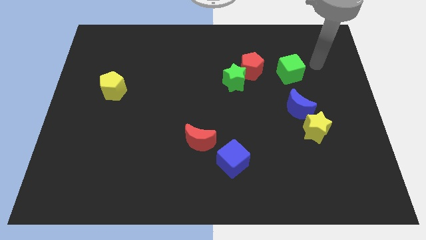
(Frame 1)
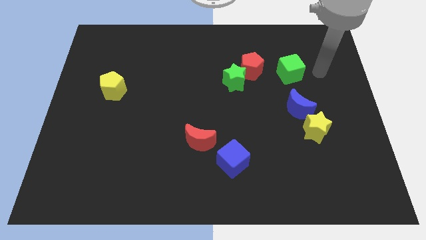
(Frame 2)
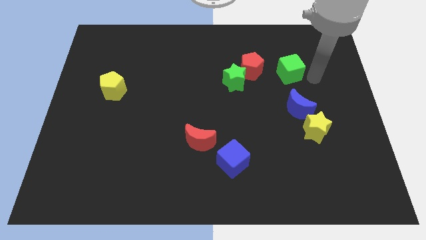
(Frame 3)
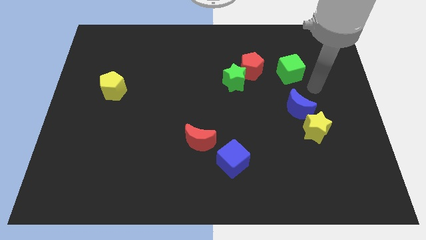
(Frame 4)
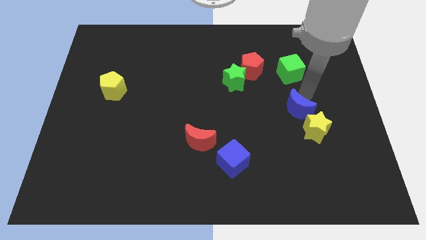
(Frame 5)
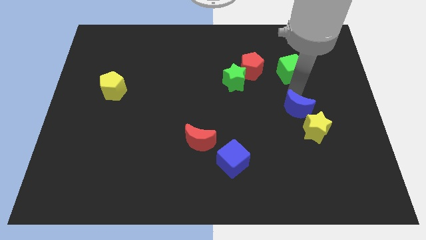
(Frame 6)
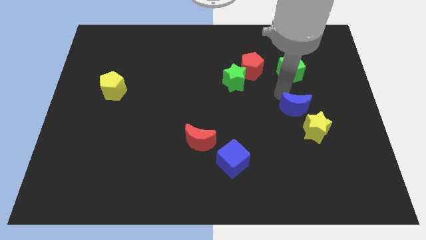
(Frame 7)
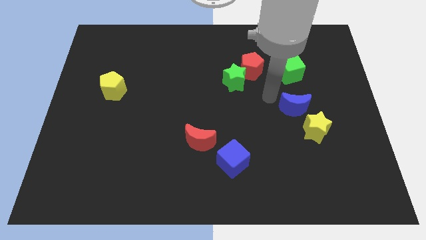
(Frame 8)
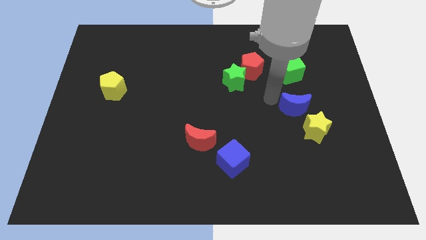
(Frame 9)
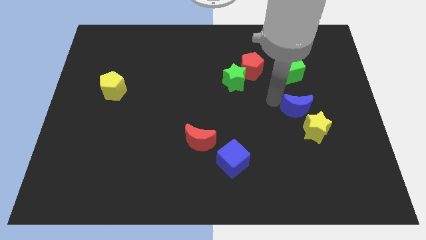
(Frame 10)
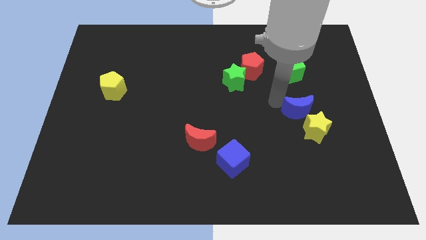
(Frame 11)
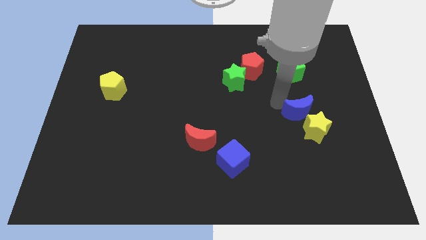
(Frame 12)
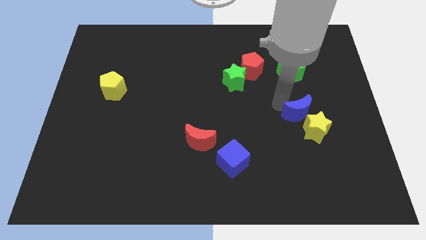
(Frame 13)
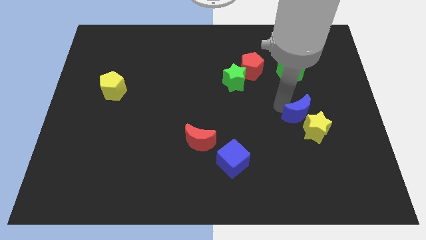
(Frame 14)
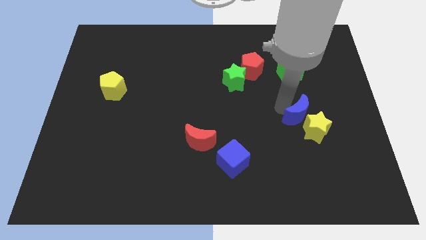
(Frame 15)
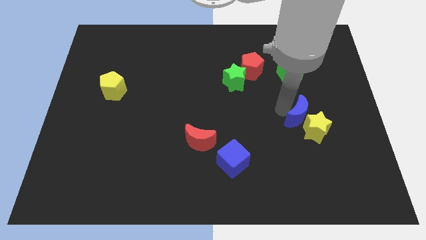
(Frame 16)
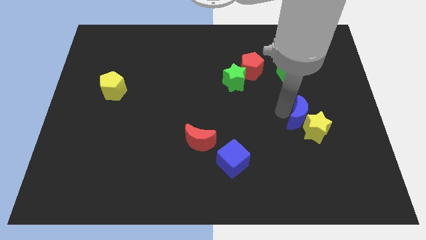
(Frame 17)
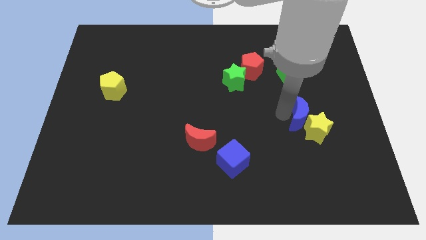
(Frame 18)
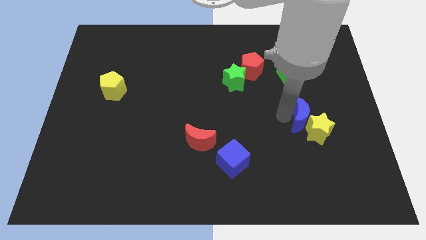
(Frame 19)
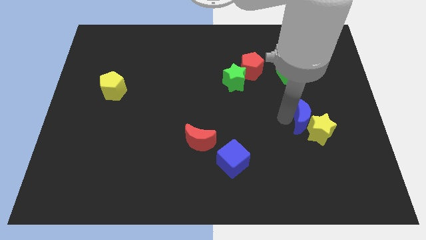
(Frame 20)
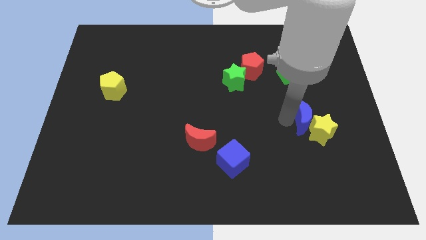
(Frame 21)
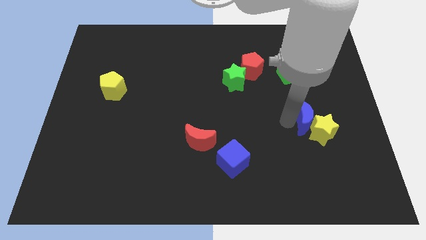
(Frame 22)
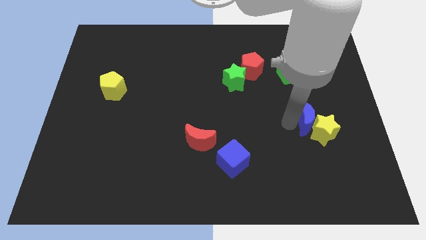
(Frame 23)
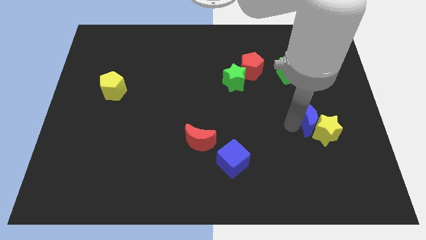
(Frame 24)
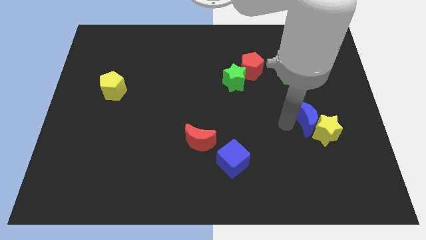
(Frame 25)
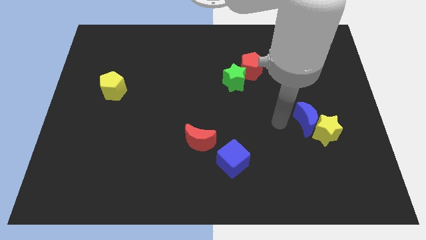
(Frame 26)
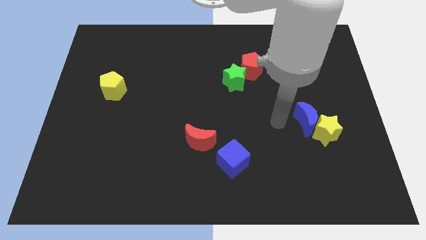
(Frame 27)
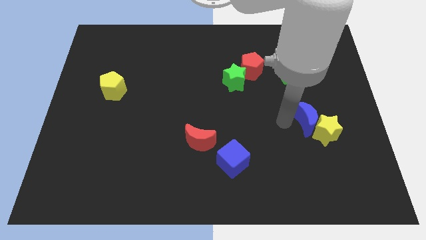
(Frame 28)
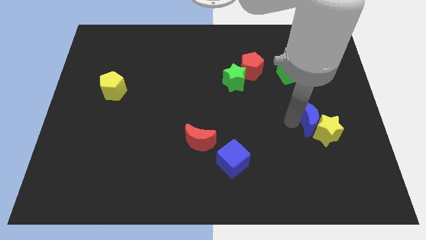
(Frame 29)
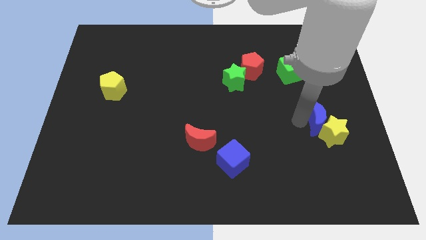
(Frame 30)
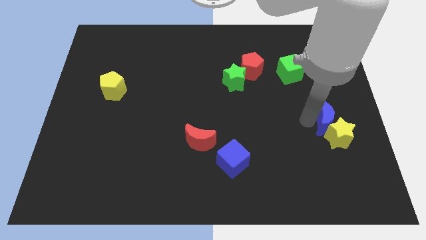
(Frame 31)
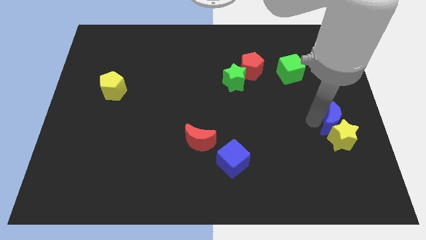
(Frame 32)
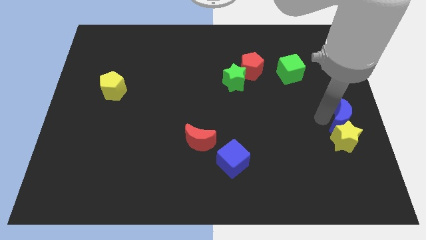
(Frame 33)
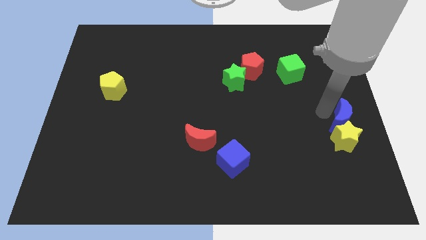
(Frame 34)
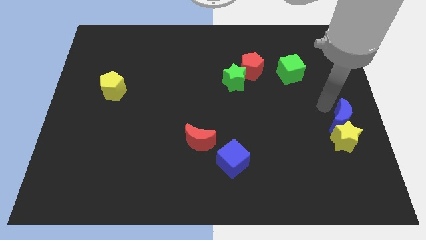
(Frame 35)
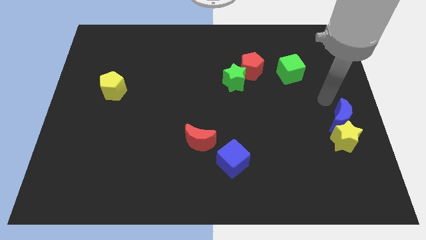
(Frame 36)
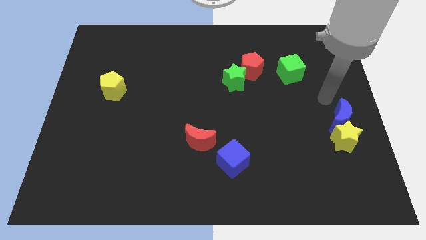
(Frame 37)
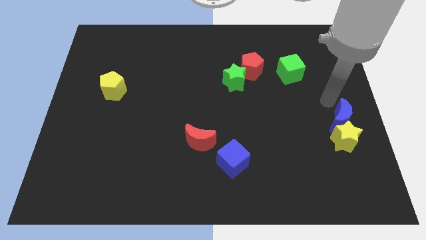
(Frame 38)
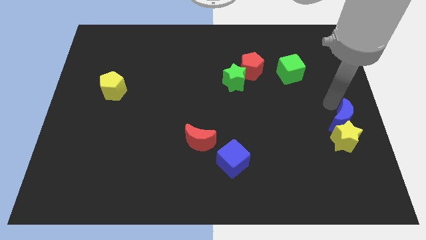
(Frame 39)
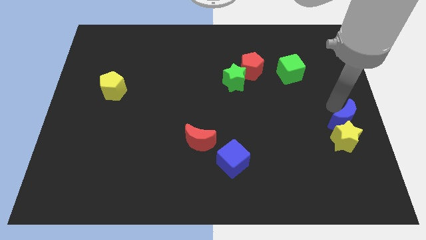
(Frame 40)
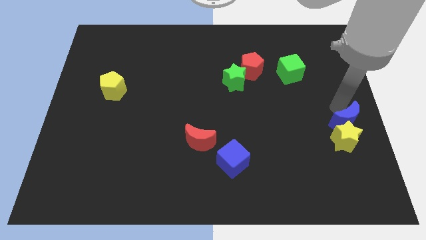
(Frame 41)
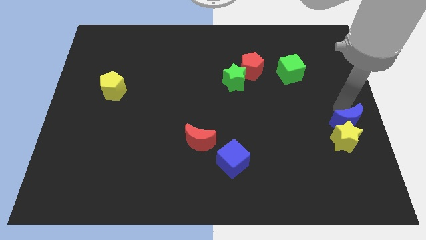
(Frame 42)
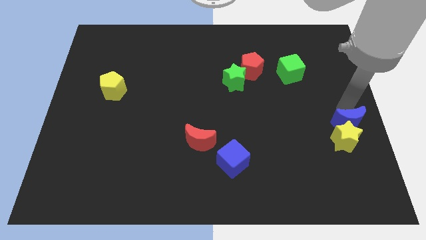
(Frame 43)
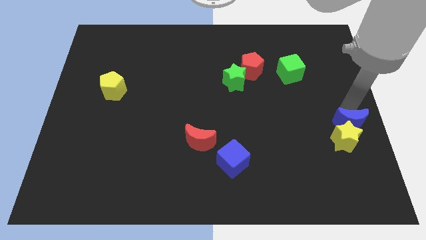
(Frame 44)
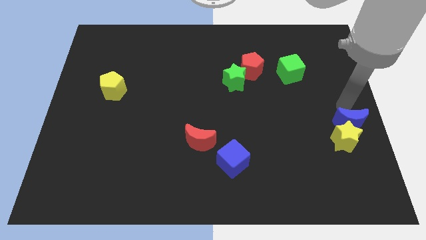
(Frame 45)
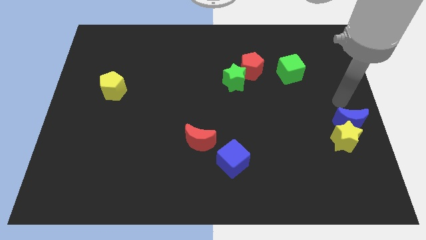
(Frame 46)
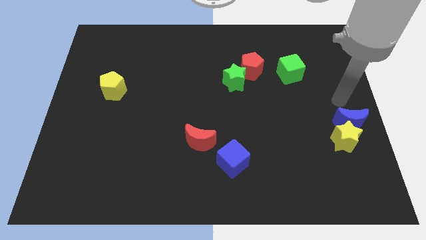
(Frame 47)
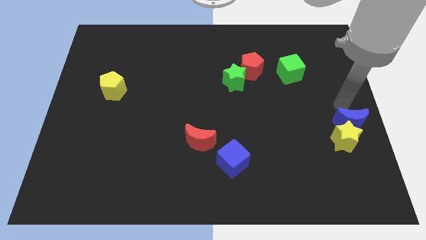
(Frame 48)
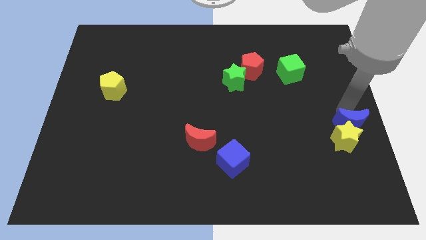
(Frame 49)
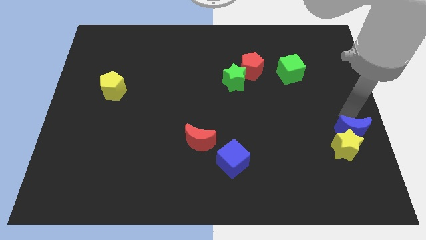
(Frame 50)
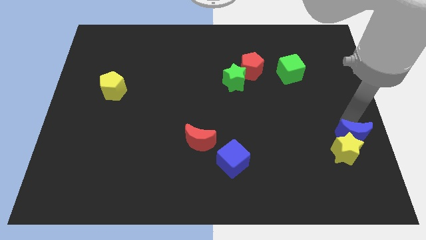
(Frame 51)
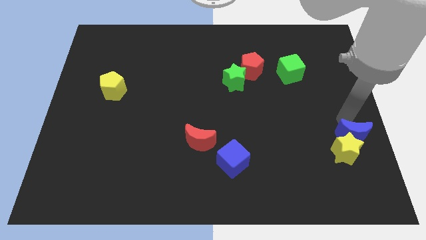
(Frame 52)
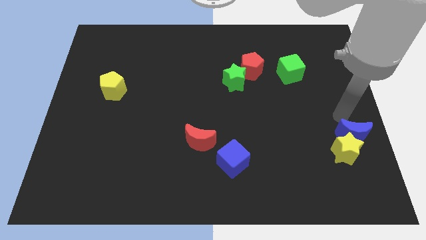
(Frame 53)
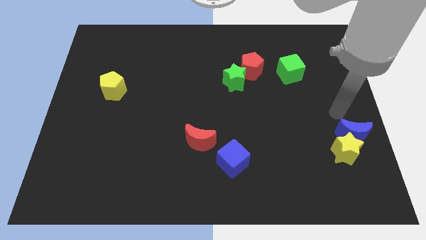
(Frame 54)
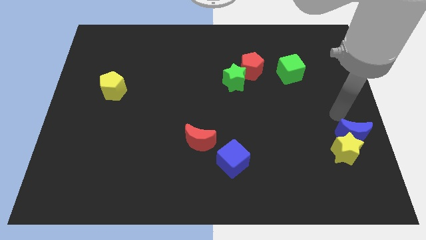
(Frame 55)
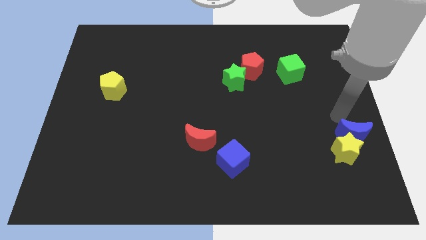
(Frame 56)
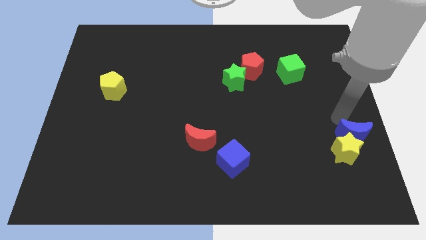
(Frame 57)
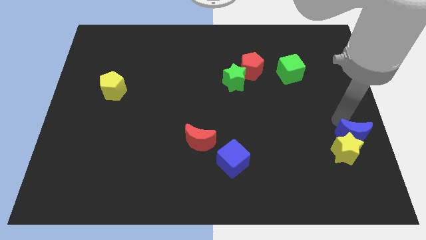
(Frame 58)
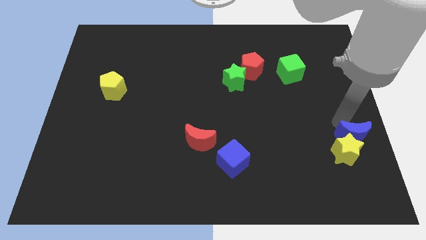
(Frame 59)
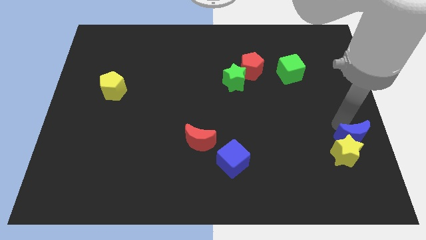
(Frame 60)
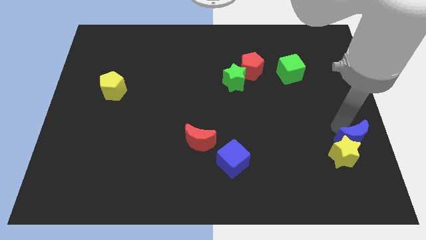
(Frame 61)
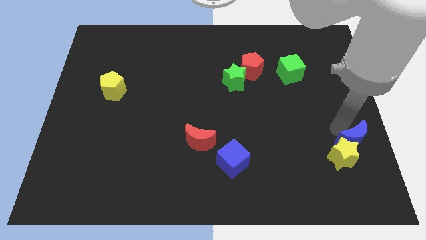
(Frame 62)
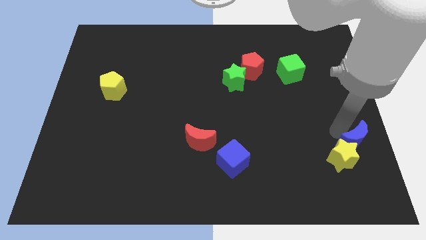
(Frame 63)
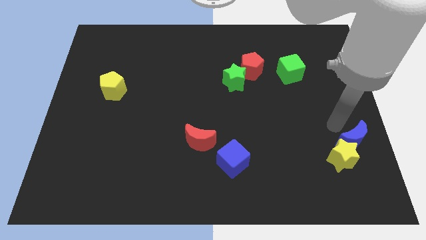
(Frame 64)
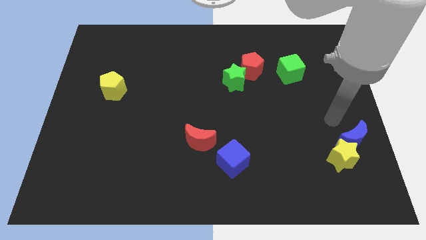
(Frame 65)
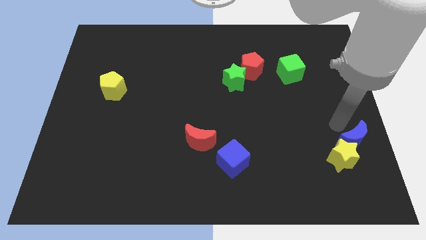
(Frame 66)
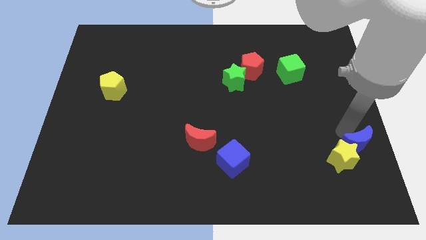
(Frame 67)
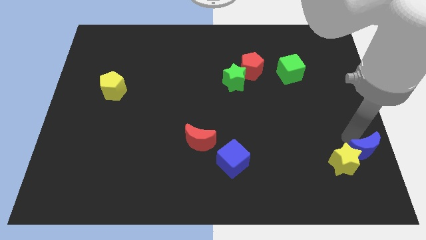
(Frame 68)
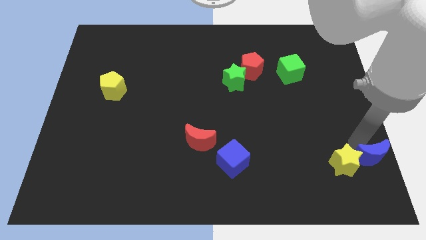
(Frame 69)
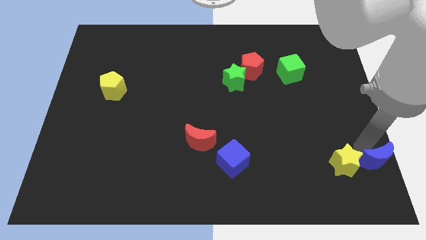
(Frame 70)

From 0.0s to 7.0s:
move the blue moon to the bottom right
